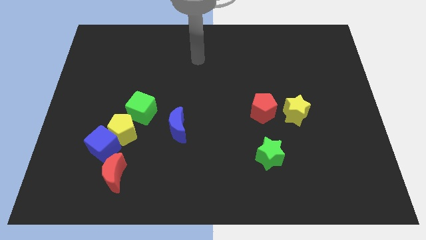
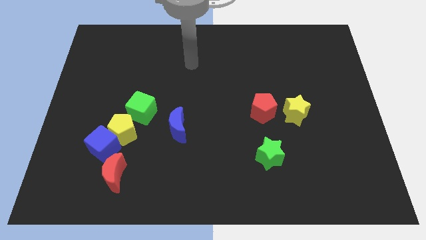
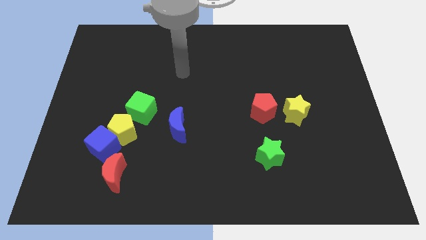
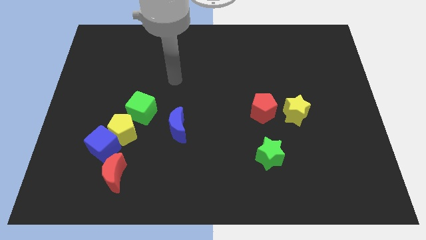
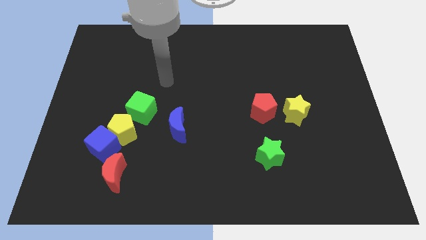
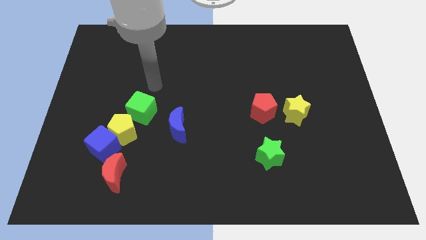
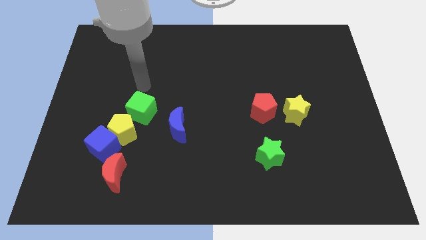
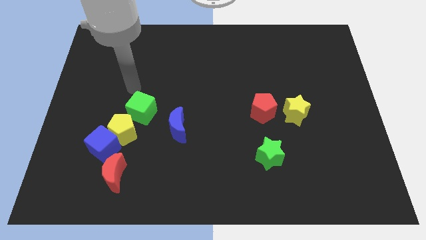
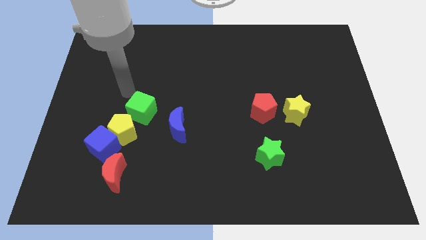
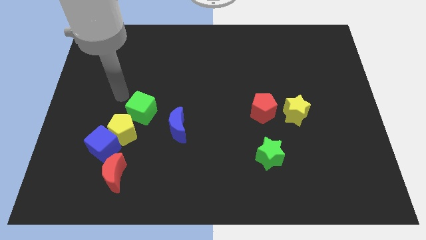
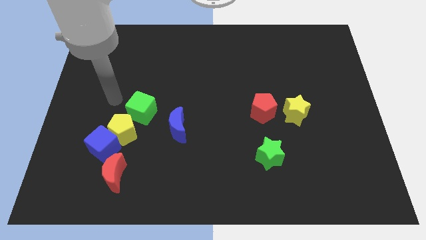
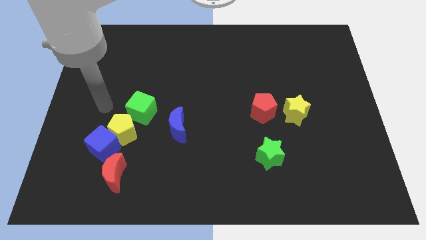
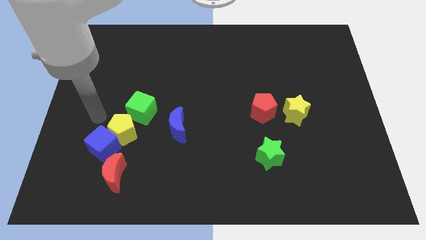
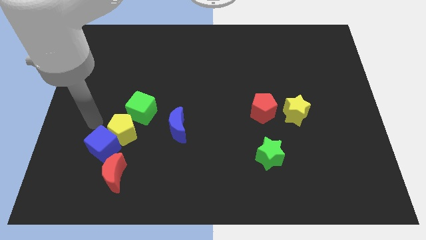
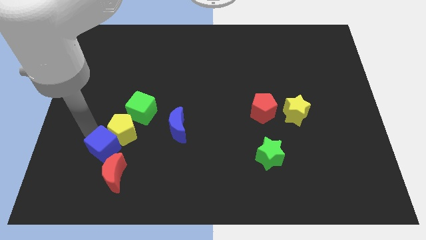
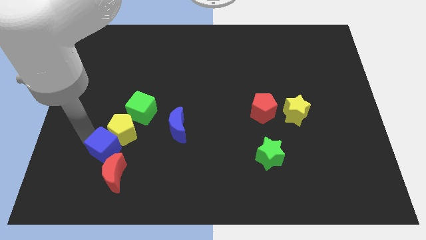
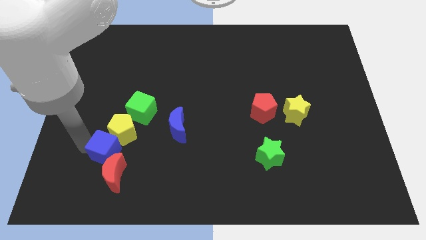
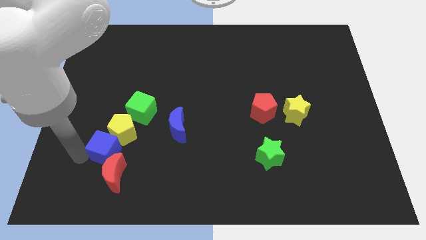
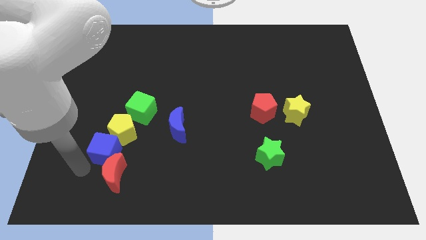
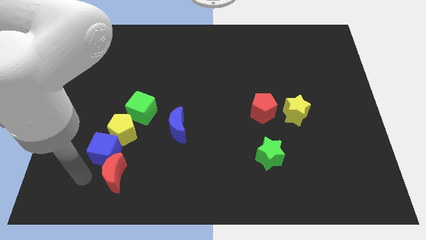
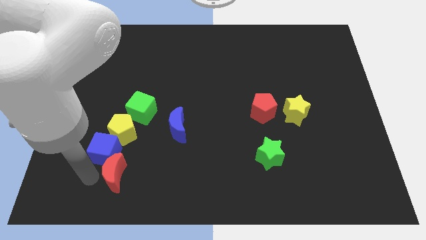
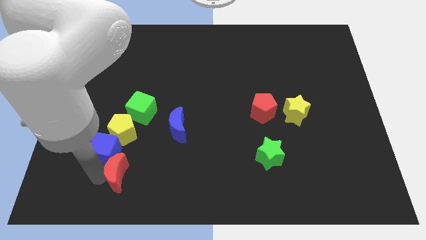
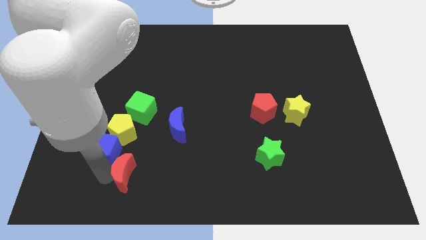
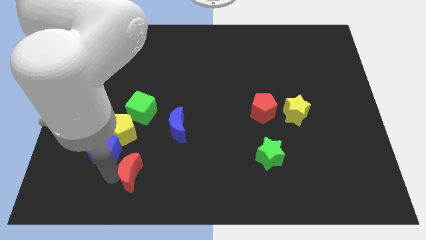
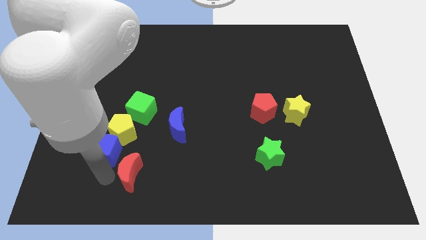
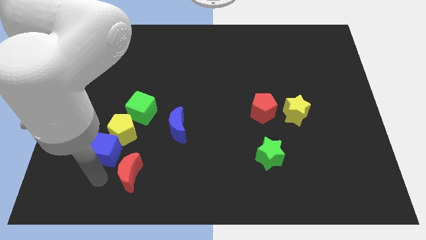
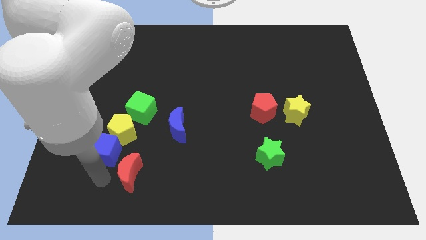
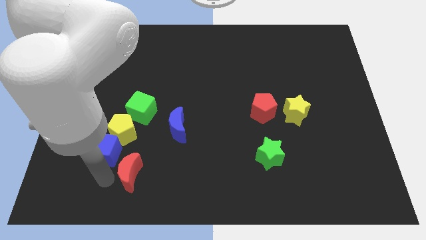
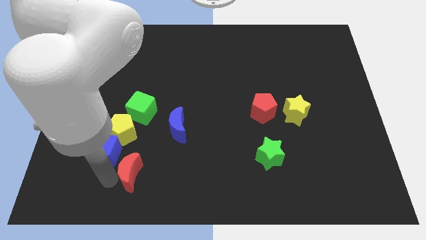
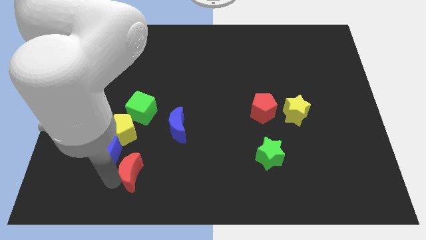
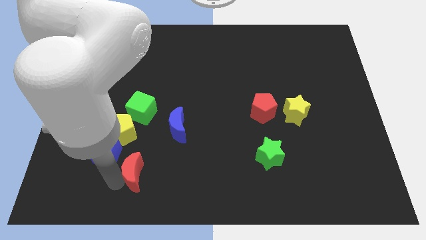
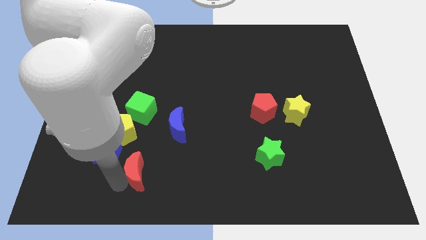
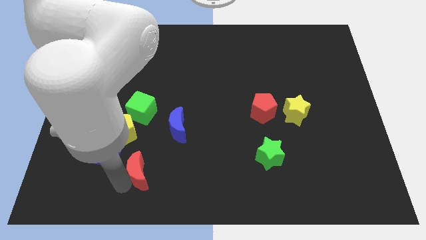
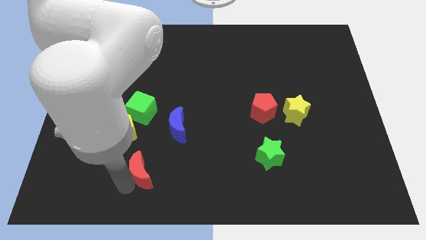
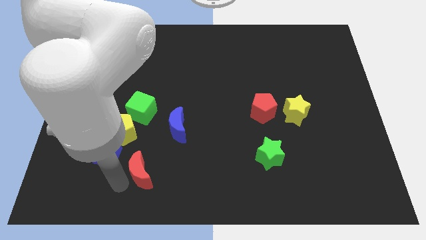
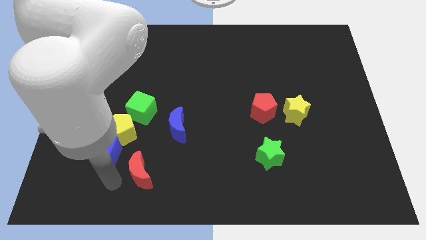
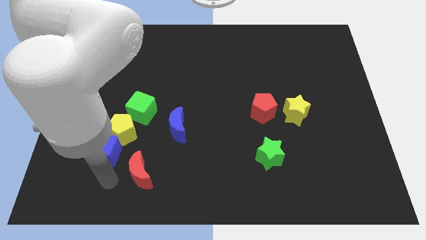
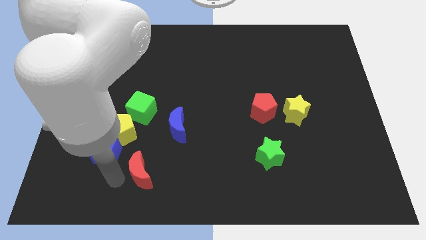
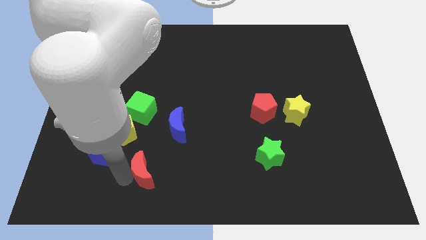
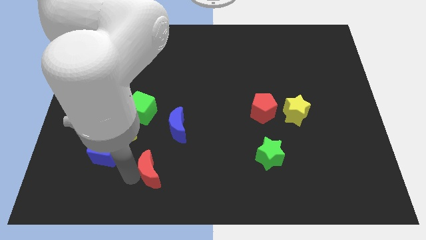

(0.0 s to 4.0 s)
slightly slide the red moon right

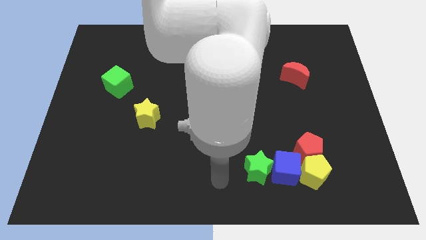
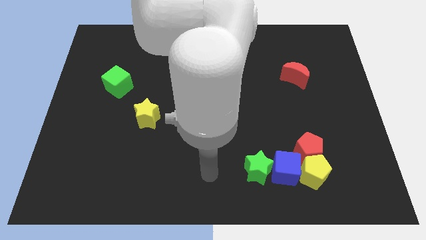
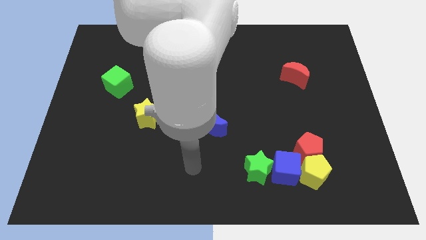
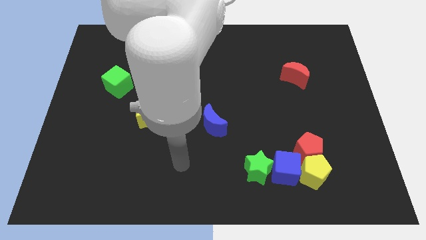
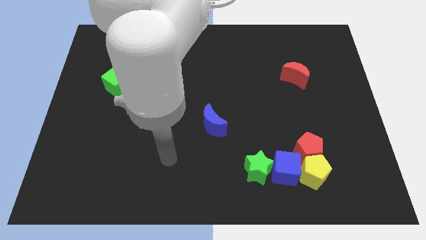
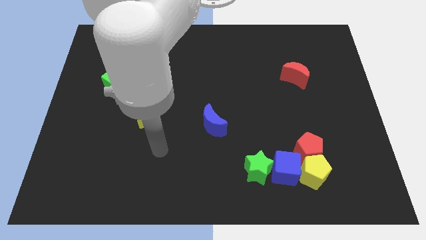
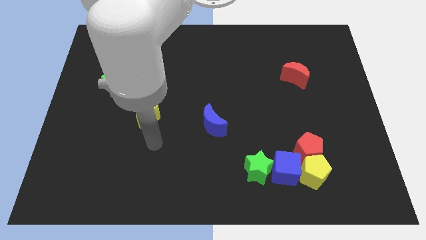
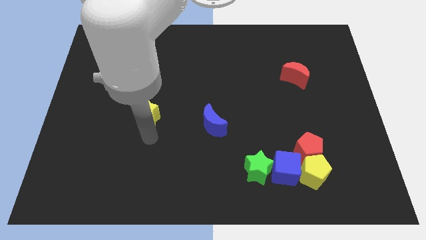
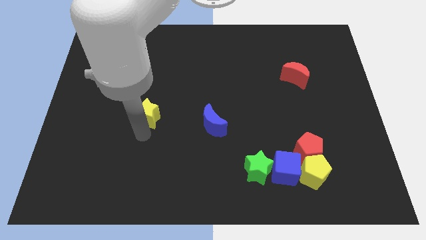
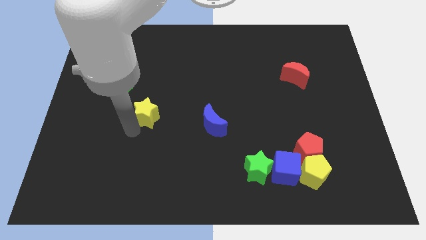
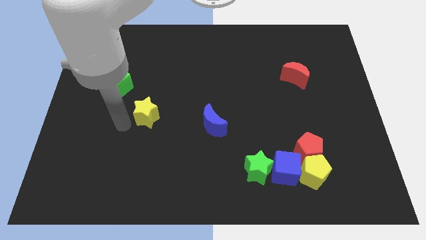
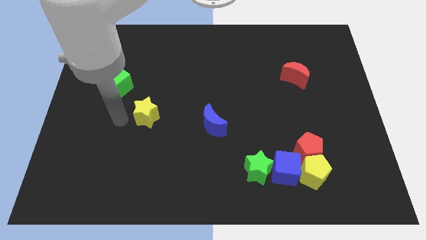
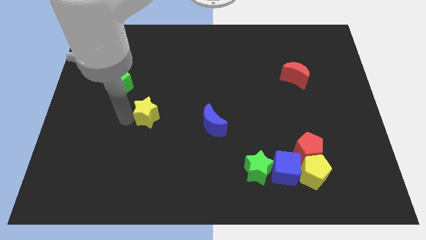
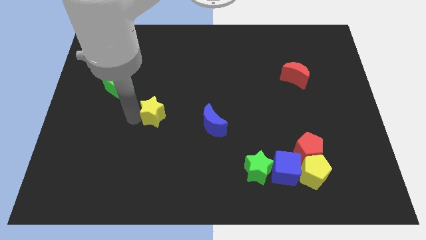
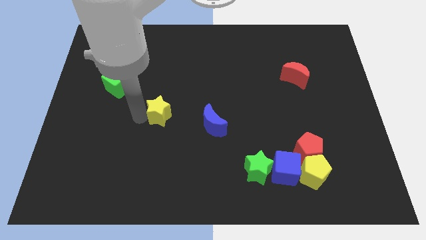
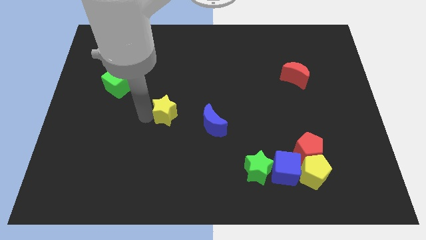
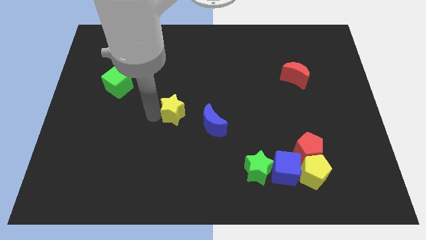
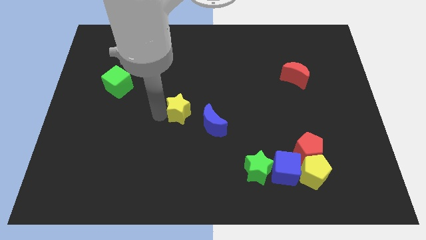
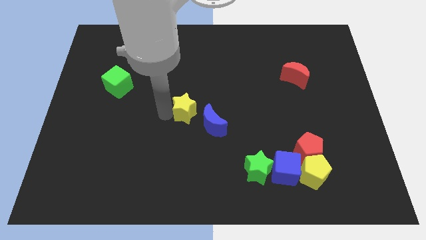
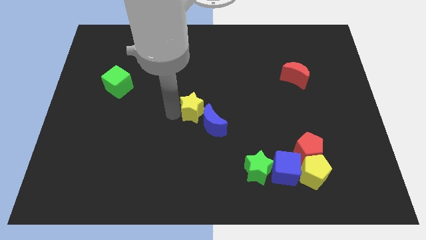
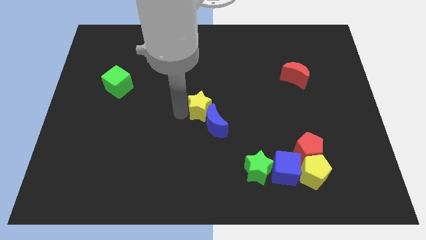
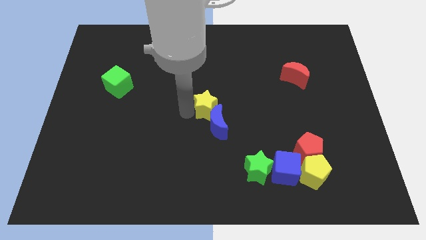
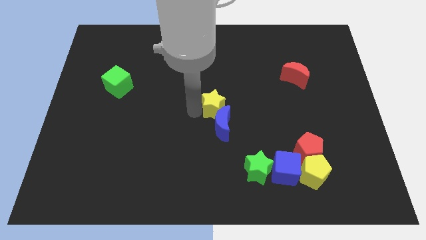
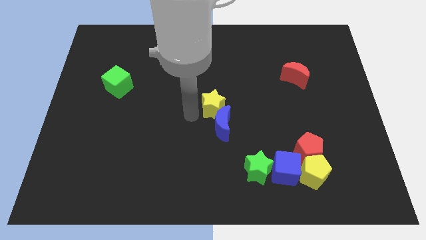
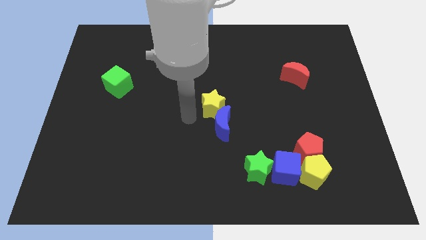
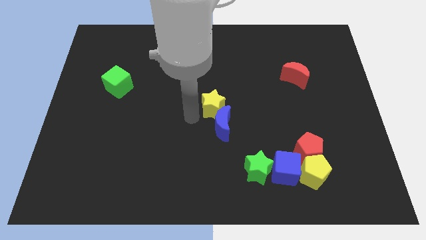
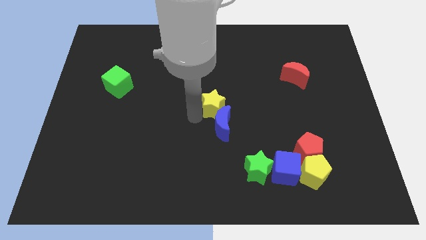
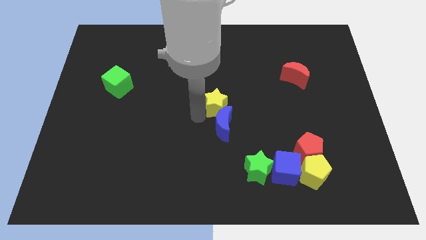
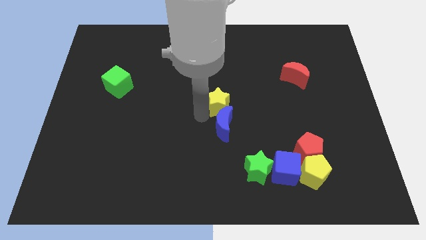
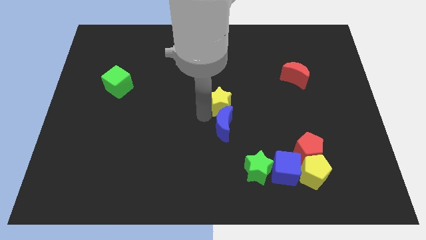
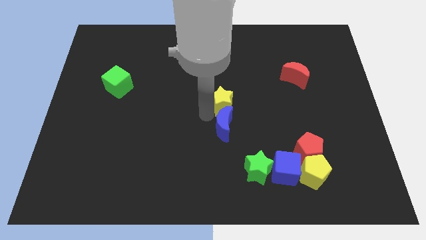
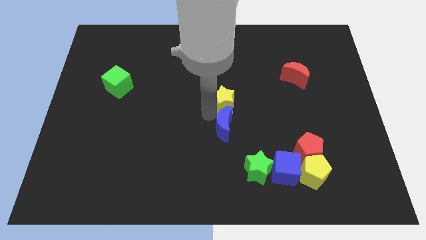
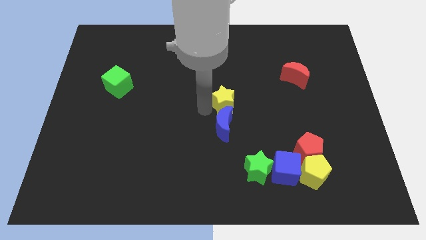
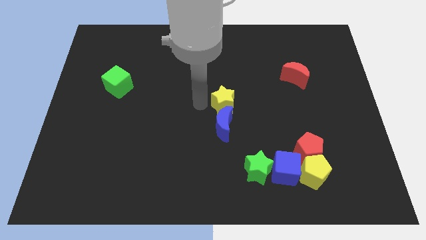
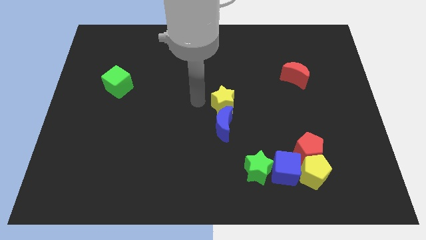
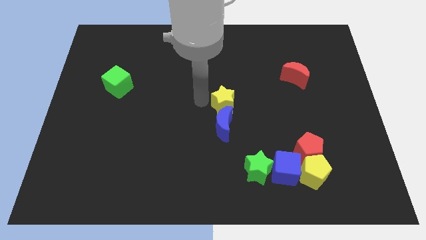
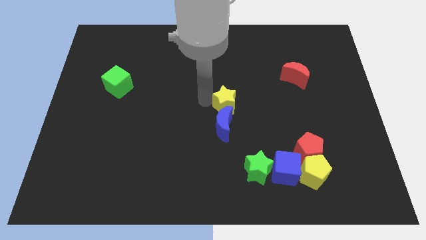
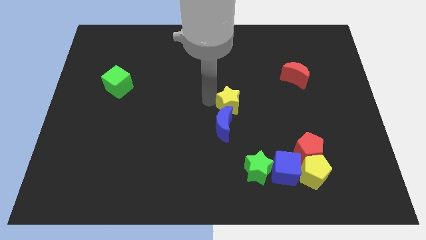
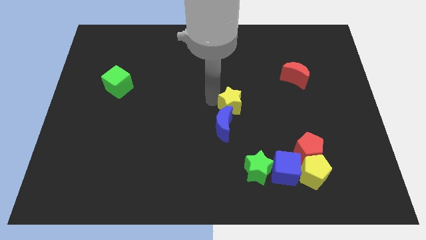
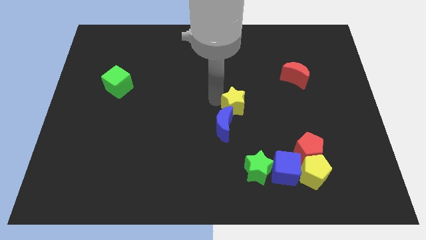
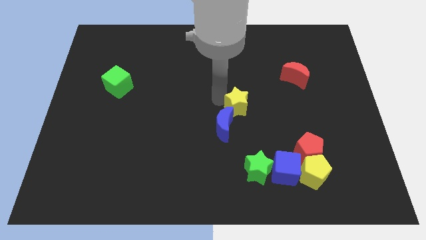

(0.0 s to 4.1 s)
move the yellow star to the right
